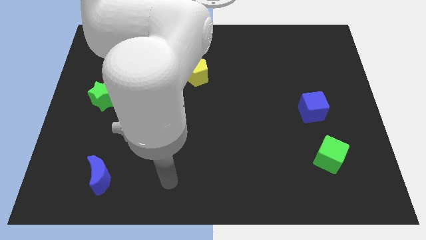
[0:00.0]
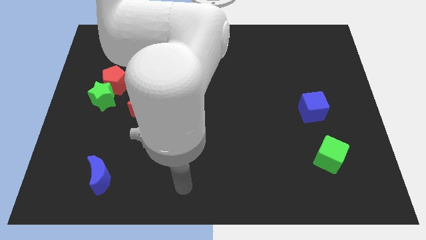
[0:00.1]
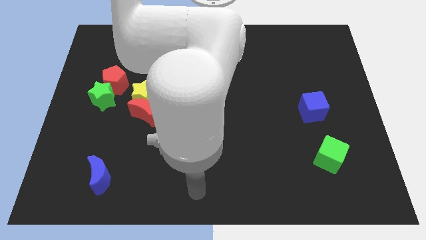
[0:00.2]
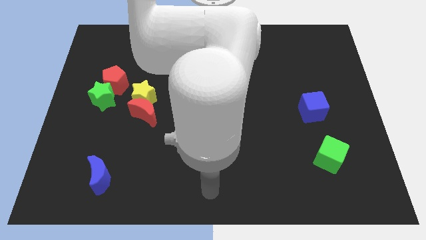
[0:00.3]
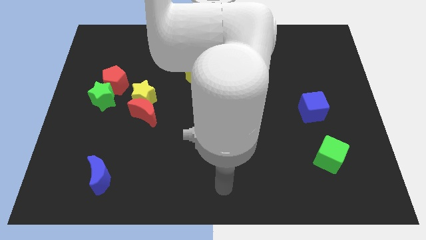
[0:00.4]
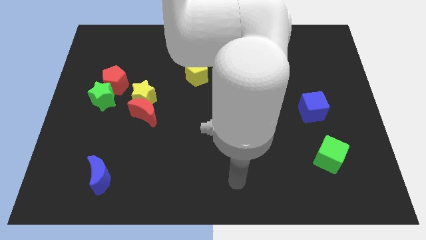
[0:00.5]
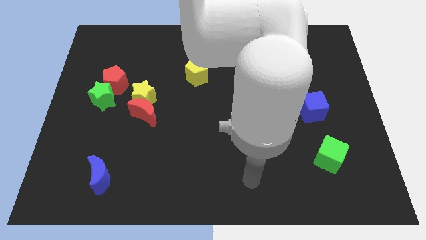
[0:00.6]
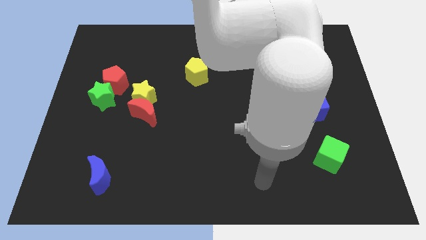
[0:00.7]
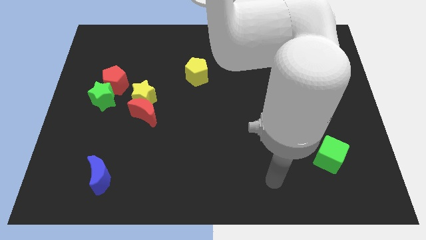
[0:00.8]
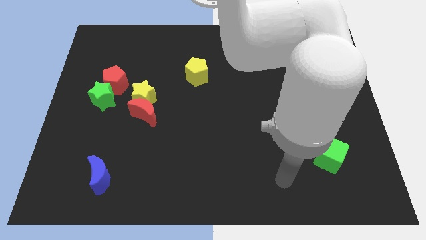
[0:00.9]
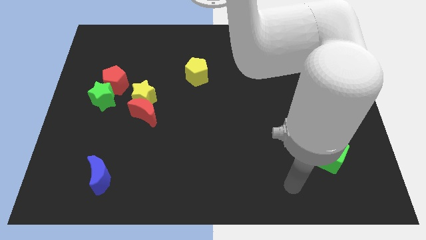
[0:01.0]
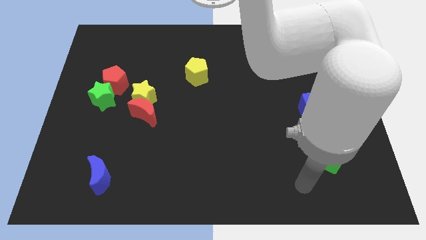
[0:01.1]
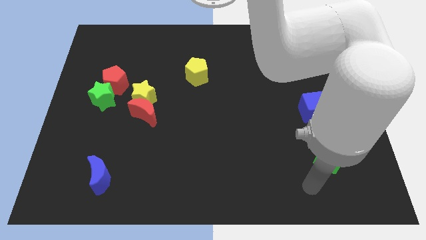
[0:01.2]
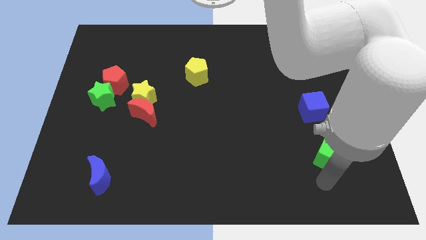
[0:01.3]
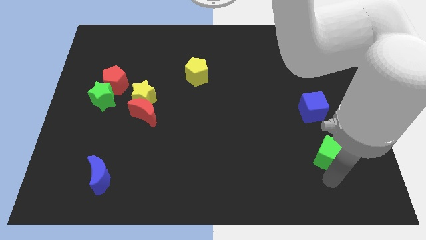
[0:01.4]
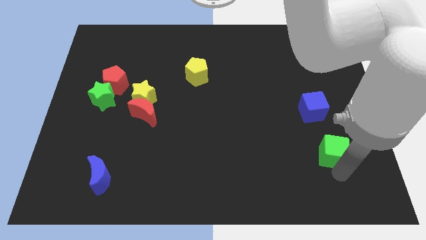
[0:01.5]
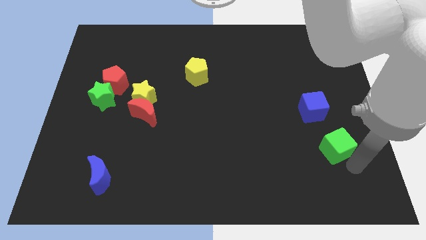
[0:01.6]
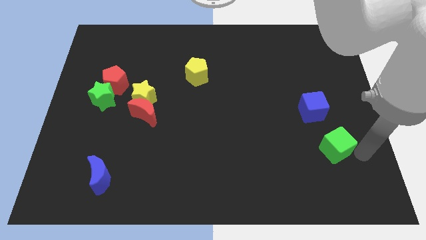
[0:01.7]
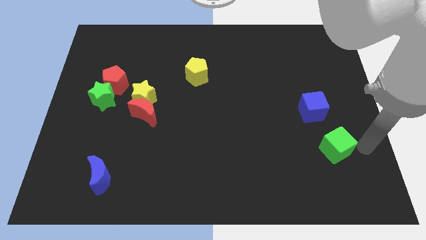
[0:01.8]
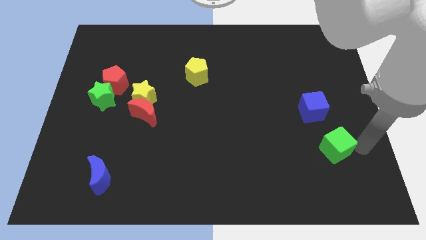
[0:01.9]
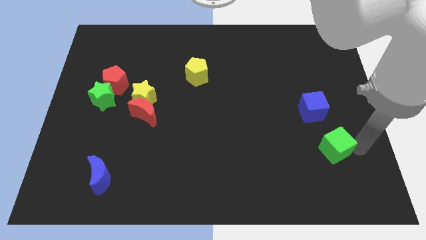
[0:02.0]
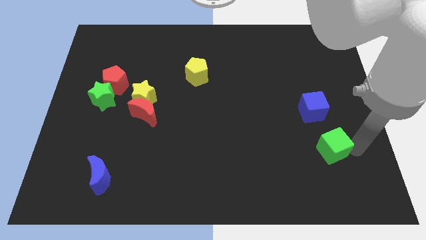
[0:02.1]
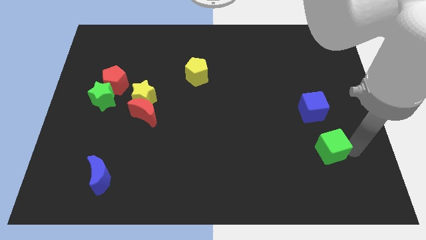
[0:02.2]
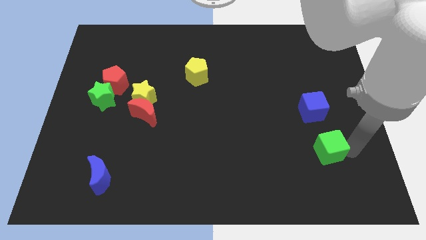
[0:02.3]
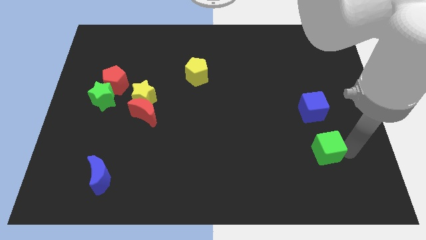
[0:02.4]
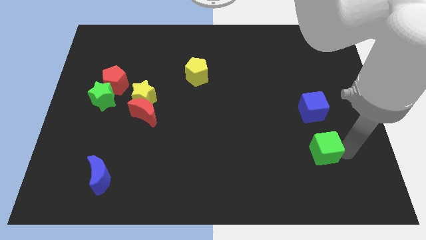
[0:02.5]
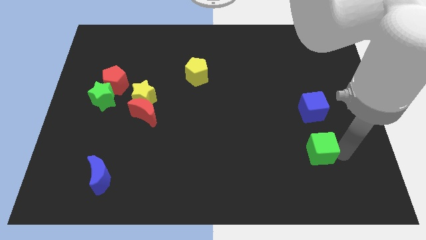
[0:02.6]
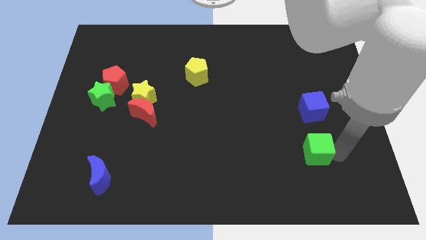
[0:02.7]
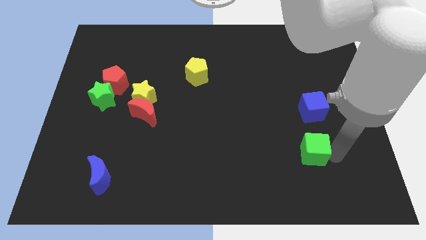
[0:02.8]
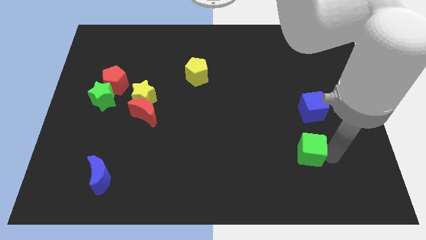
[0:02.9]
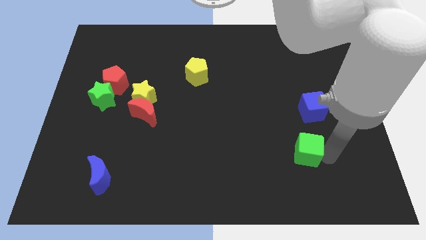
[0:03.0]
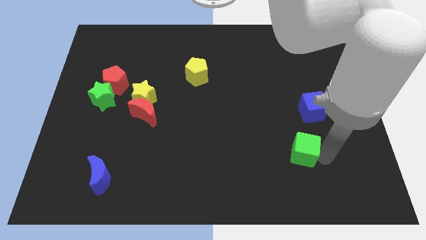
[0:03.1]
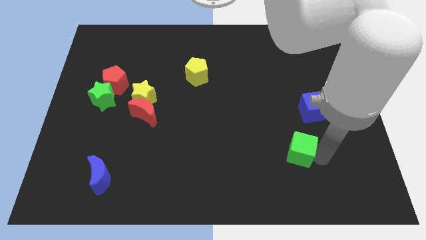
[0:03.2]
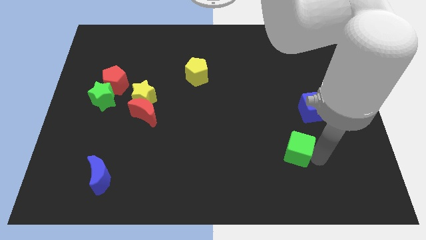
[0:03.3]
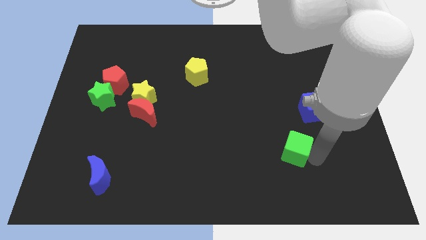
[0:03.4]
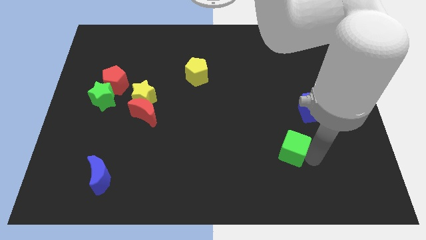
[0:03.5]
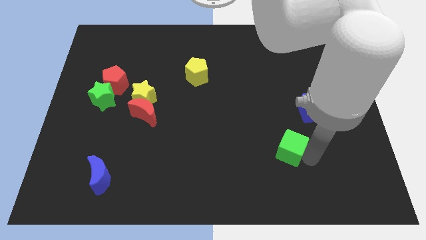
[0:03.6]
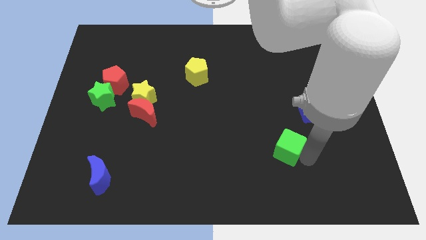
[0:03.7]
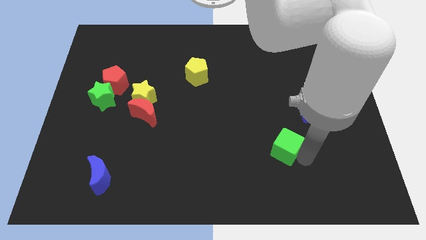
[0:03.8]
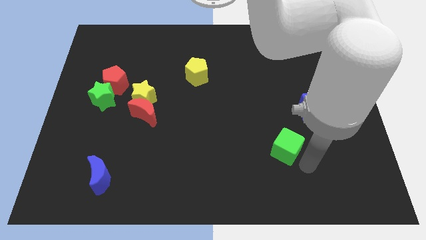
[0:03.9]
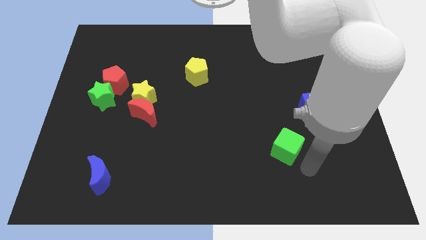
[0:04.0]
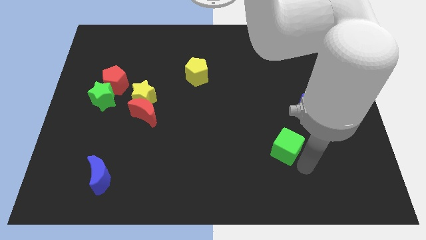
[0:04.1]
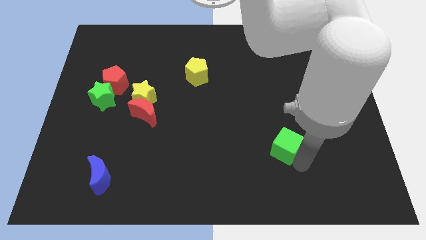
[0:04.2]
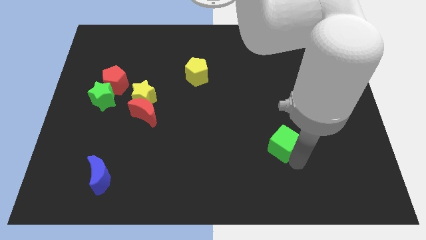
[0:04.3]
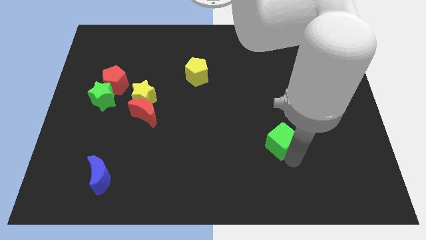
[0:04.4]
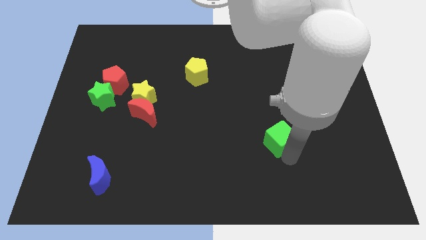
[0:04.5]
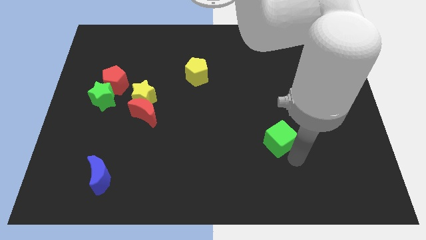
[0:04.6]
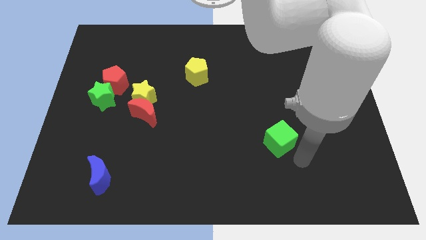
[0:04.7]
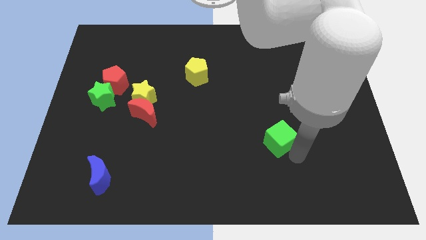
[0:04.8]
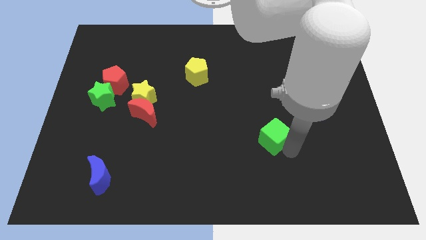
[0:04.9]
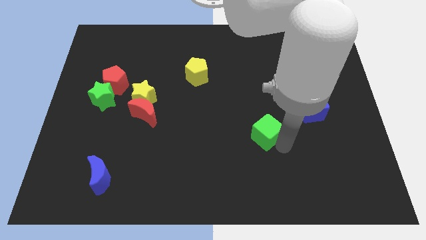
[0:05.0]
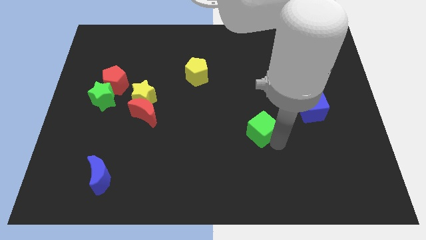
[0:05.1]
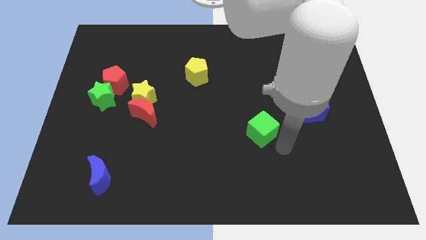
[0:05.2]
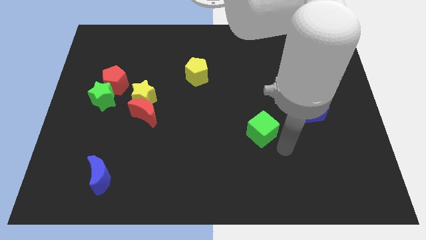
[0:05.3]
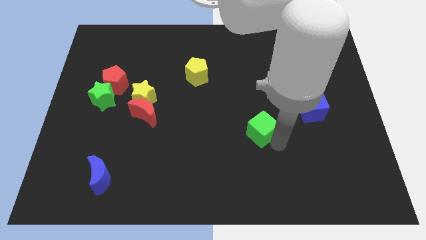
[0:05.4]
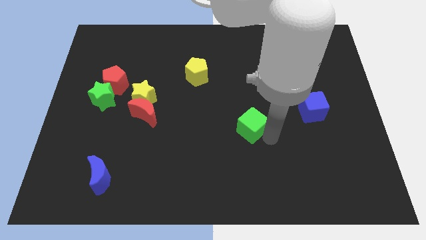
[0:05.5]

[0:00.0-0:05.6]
slide the green cube to the center of the board

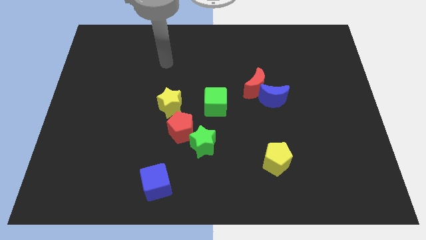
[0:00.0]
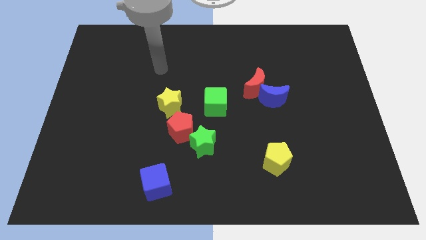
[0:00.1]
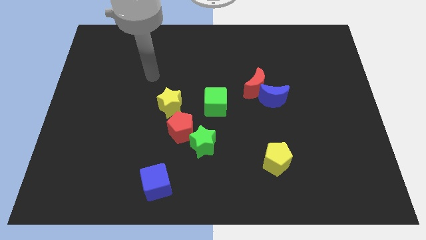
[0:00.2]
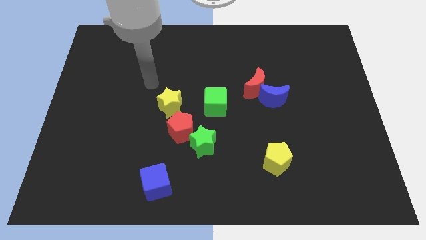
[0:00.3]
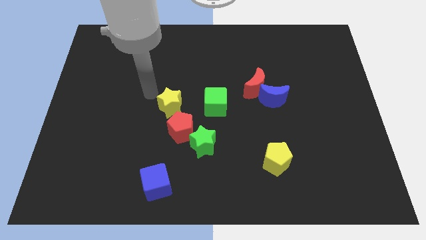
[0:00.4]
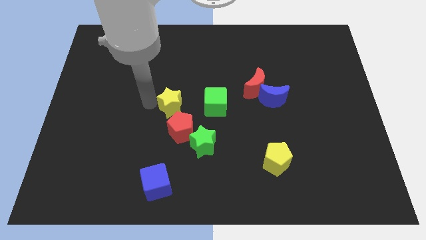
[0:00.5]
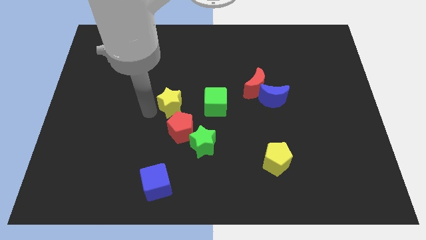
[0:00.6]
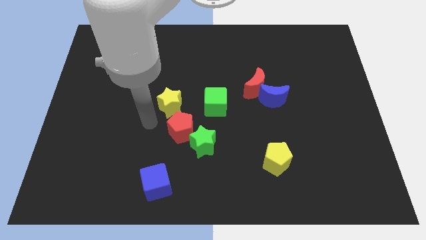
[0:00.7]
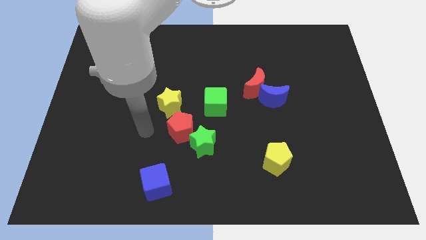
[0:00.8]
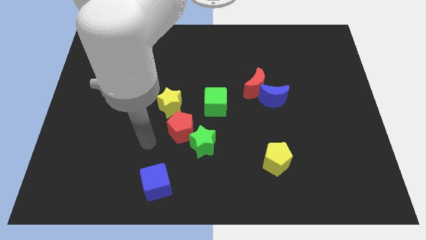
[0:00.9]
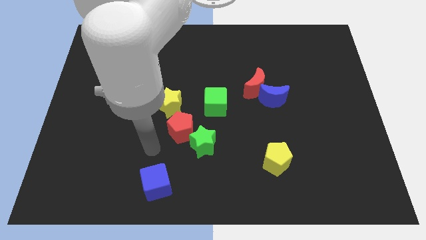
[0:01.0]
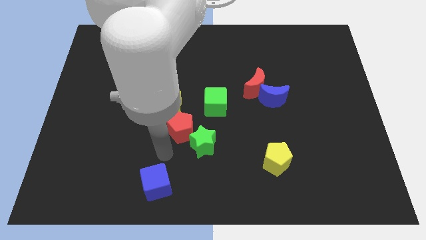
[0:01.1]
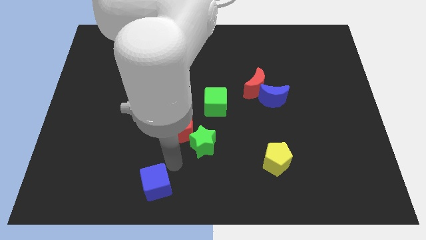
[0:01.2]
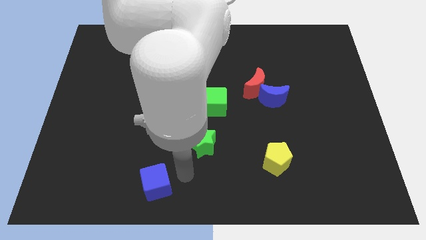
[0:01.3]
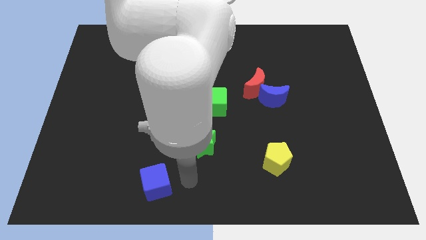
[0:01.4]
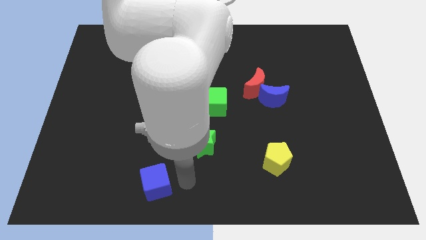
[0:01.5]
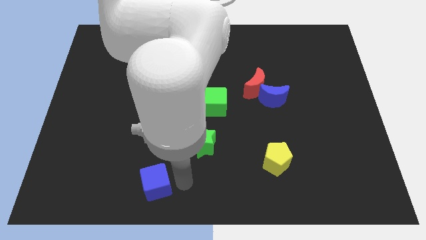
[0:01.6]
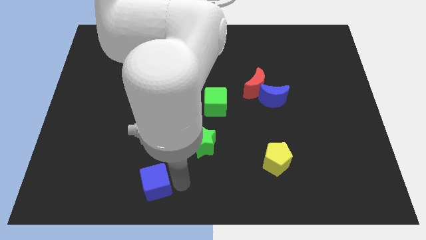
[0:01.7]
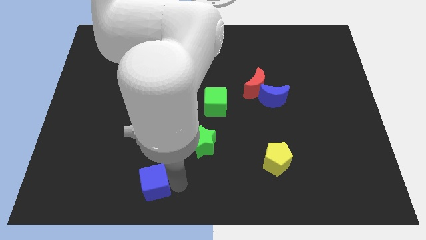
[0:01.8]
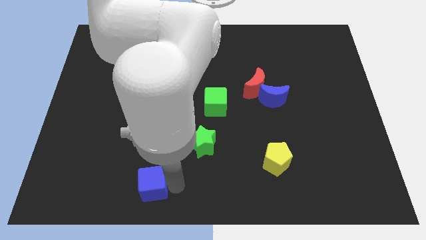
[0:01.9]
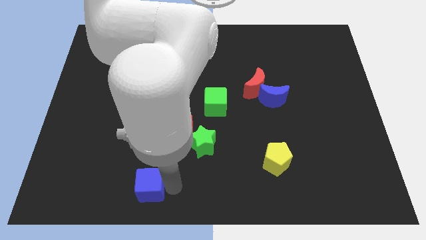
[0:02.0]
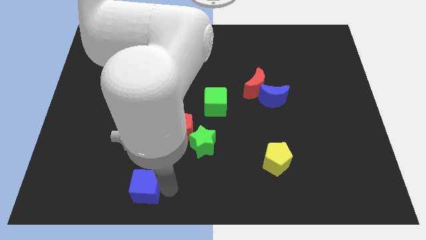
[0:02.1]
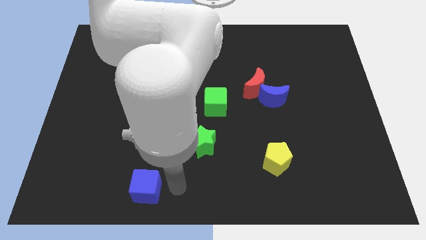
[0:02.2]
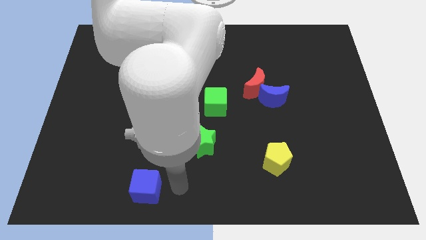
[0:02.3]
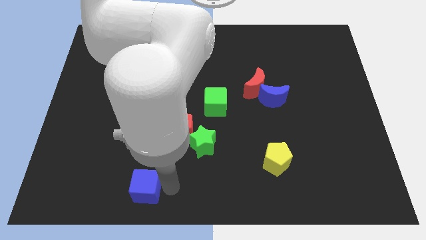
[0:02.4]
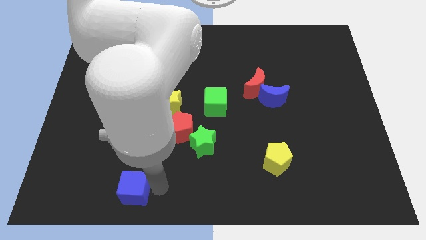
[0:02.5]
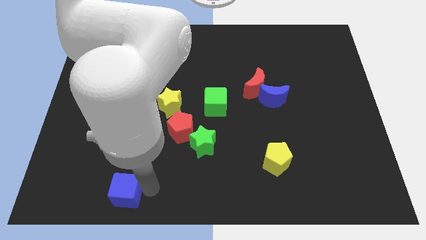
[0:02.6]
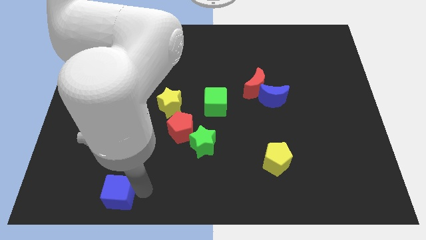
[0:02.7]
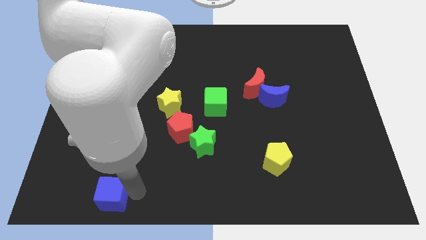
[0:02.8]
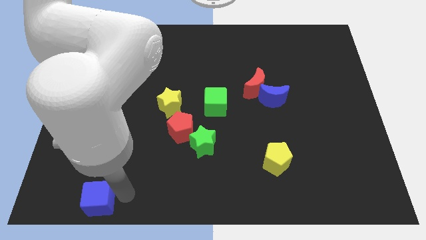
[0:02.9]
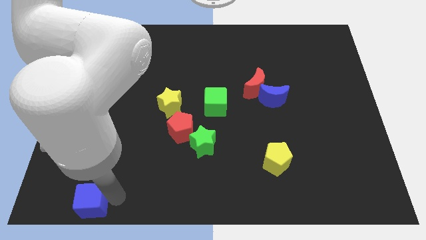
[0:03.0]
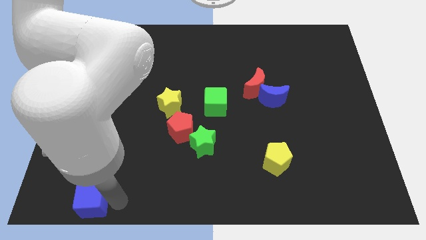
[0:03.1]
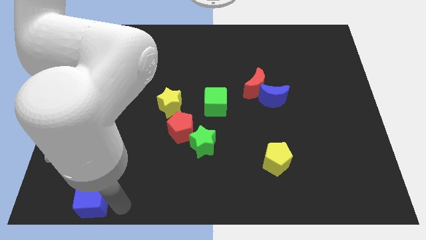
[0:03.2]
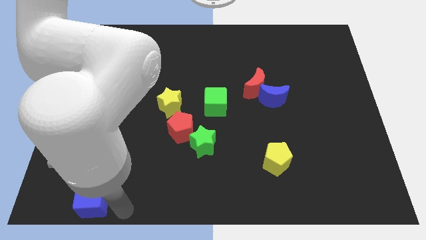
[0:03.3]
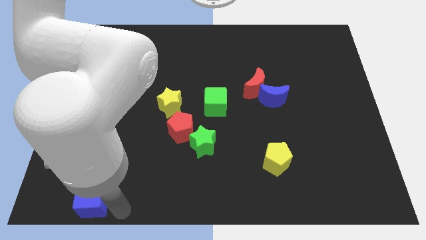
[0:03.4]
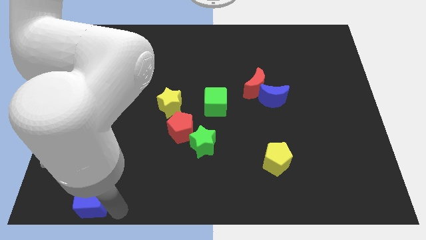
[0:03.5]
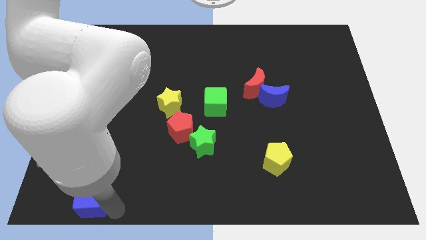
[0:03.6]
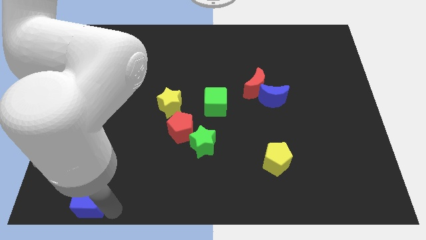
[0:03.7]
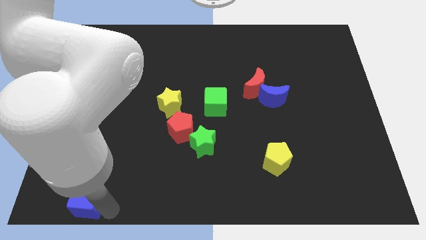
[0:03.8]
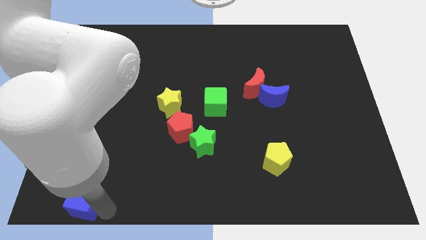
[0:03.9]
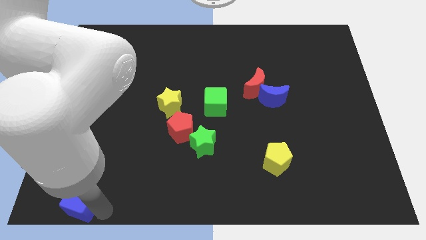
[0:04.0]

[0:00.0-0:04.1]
put the blue cube to the bottom left
